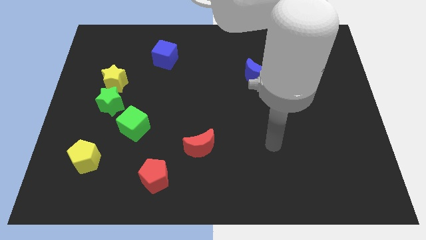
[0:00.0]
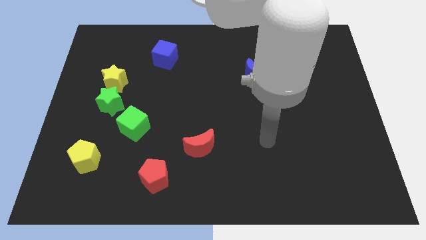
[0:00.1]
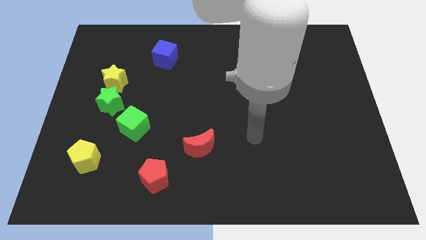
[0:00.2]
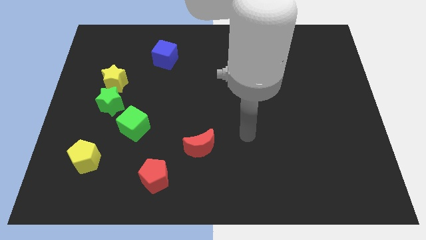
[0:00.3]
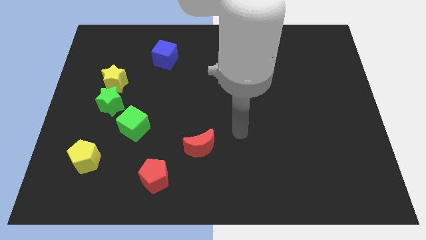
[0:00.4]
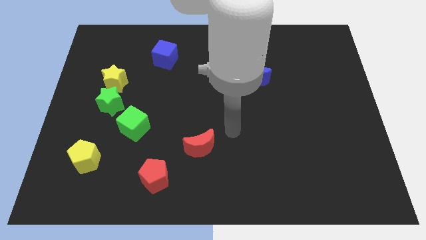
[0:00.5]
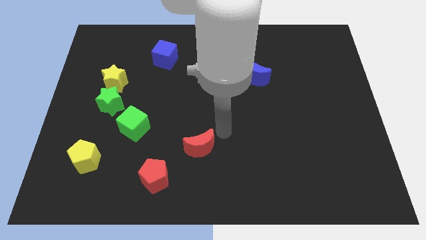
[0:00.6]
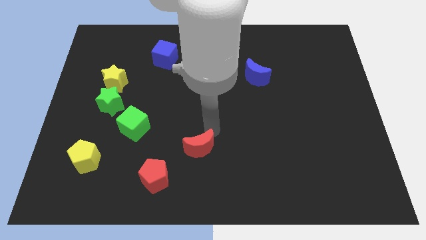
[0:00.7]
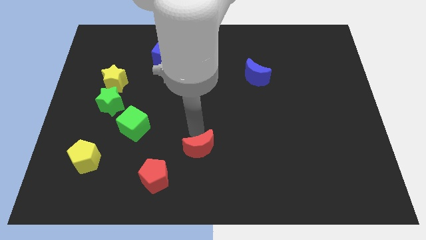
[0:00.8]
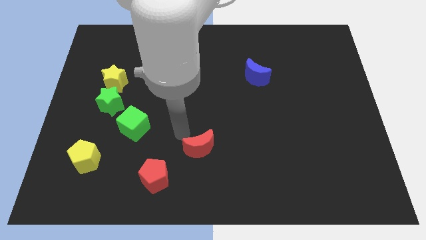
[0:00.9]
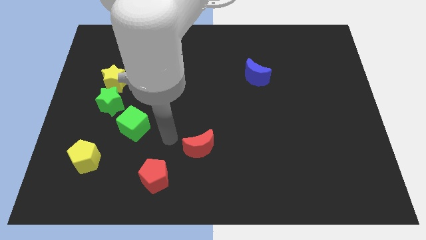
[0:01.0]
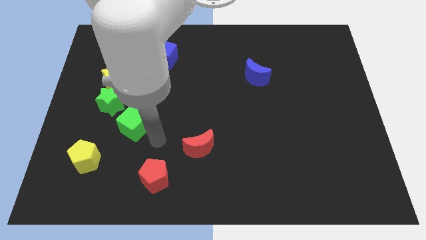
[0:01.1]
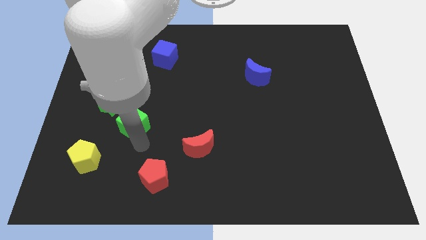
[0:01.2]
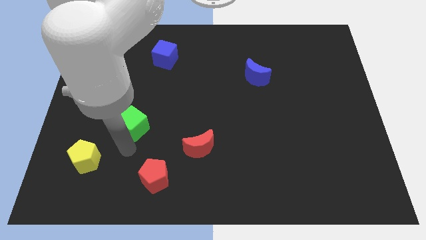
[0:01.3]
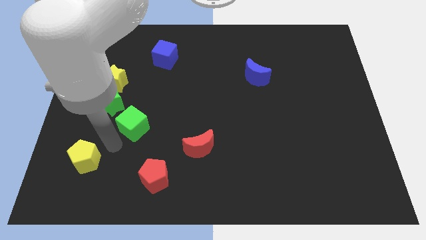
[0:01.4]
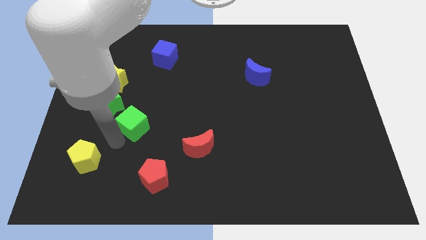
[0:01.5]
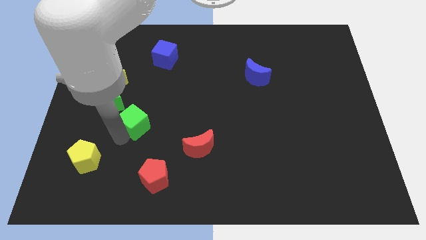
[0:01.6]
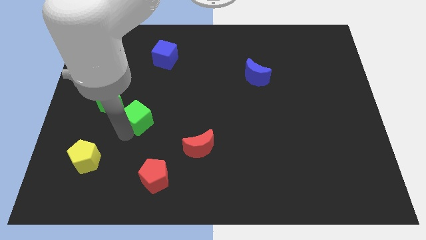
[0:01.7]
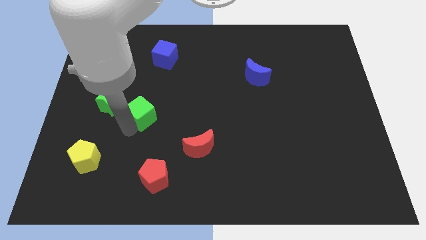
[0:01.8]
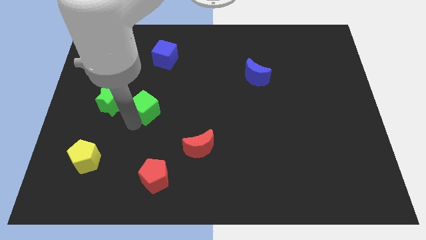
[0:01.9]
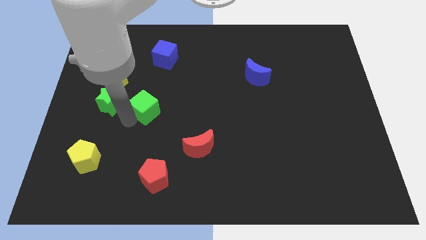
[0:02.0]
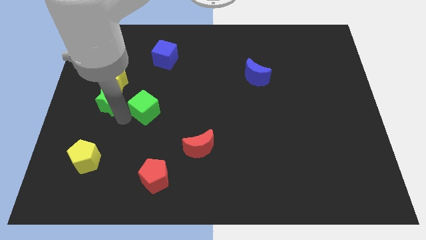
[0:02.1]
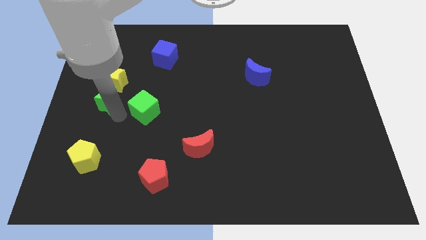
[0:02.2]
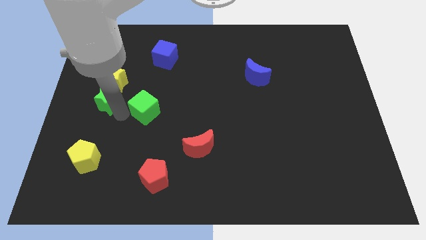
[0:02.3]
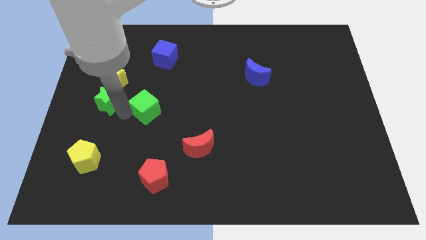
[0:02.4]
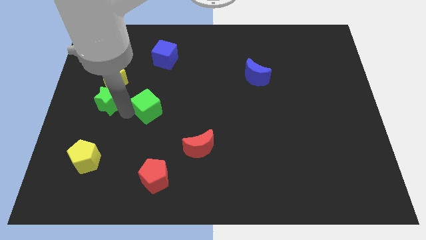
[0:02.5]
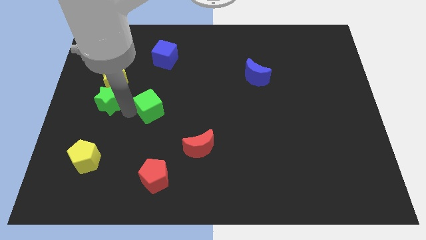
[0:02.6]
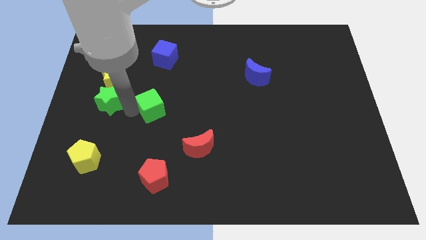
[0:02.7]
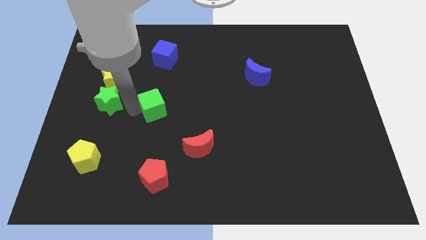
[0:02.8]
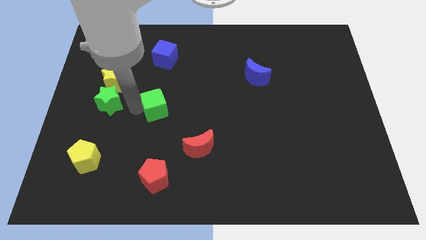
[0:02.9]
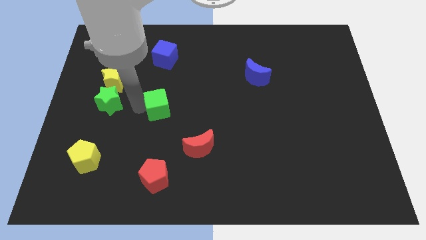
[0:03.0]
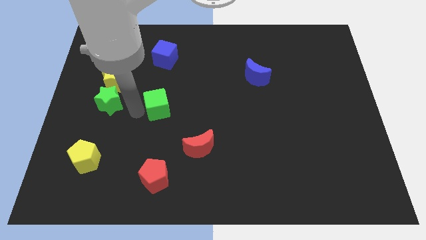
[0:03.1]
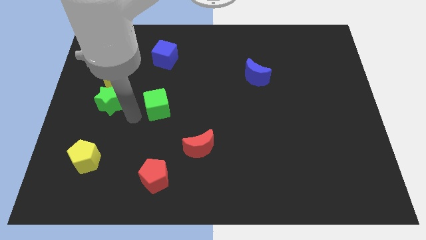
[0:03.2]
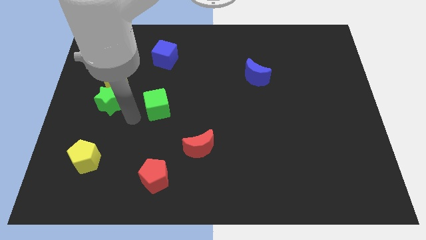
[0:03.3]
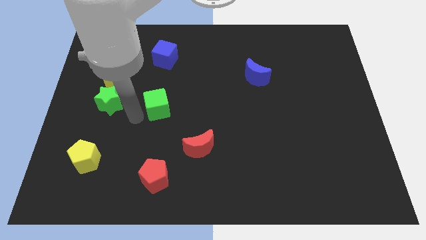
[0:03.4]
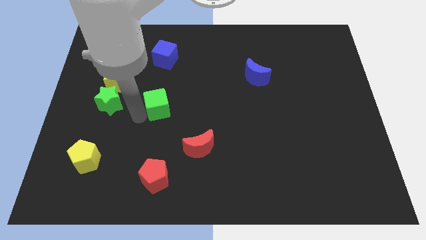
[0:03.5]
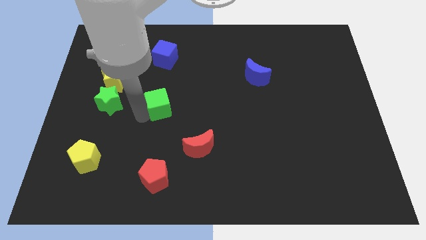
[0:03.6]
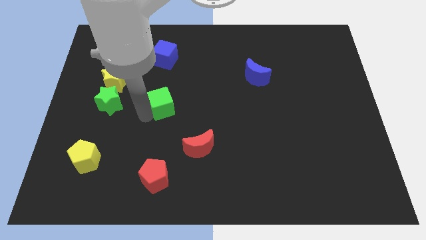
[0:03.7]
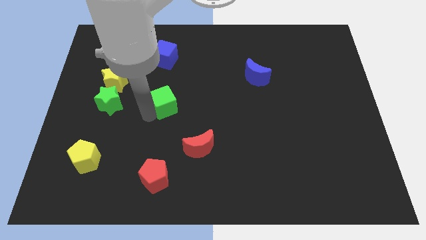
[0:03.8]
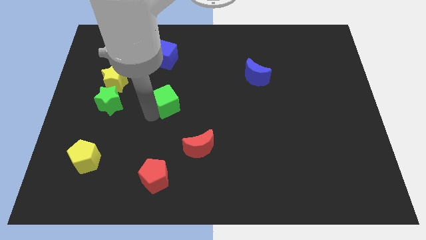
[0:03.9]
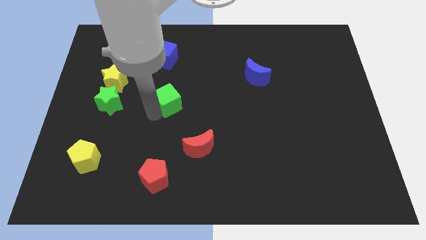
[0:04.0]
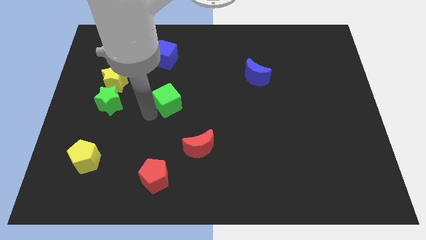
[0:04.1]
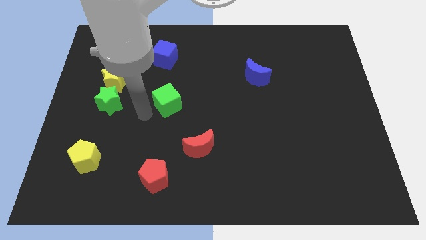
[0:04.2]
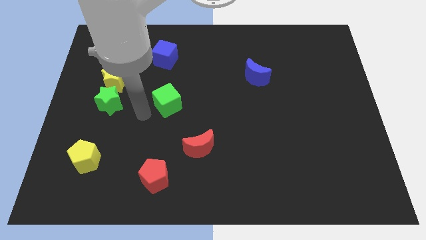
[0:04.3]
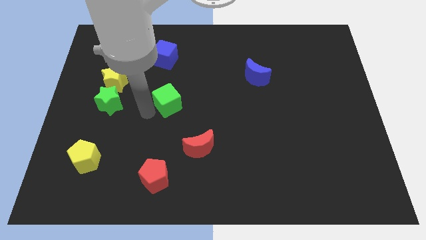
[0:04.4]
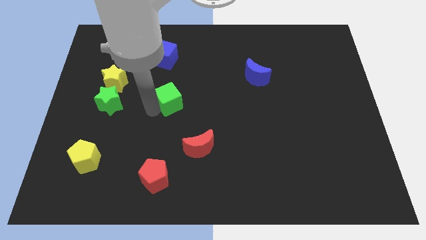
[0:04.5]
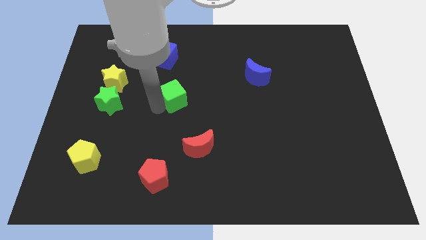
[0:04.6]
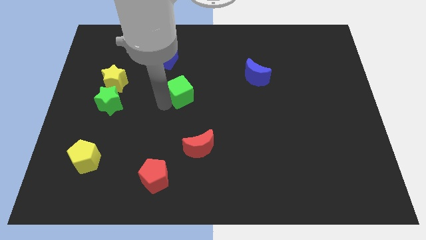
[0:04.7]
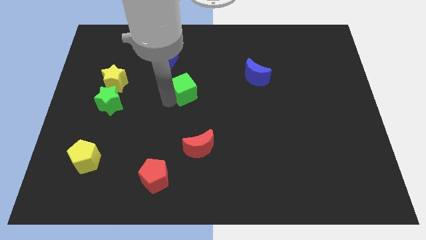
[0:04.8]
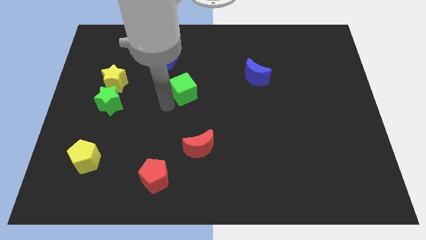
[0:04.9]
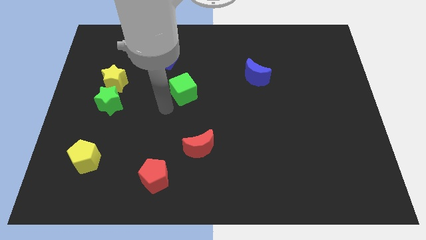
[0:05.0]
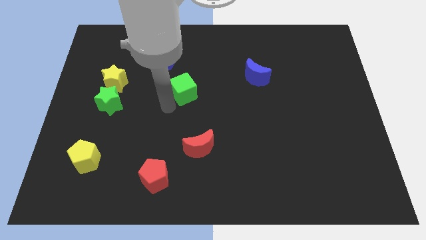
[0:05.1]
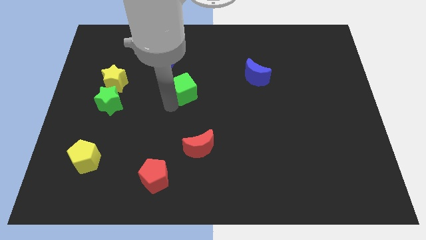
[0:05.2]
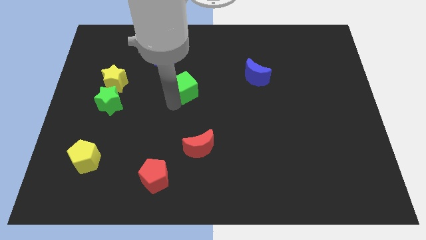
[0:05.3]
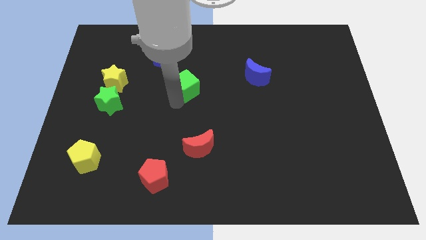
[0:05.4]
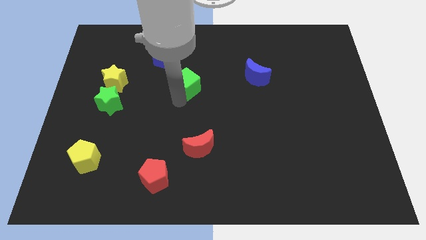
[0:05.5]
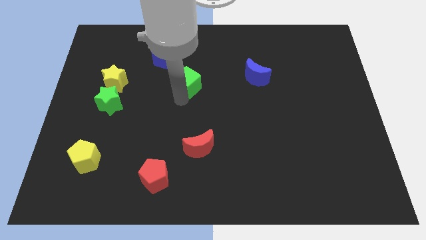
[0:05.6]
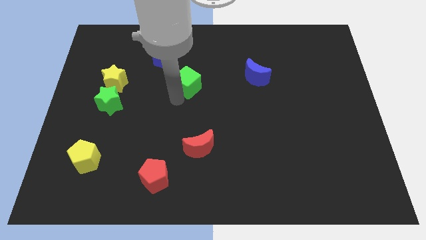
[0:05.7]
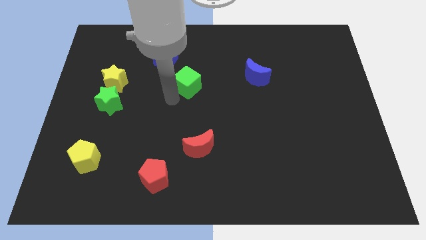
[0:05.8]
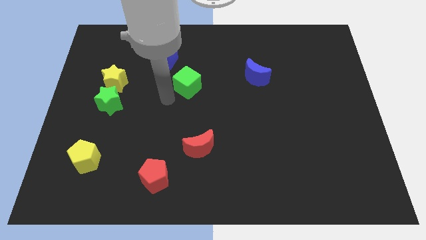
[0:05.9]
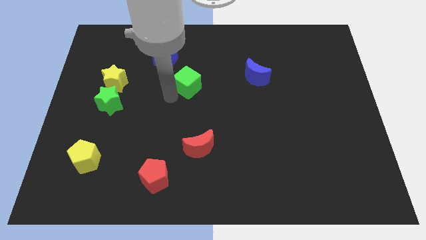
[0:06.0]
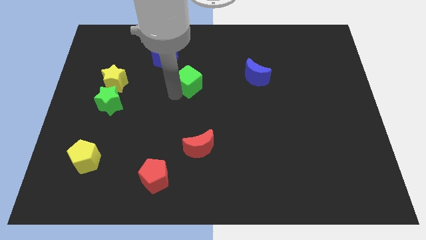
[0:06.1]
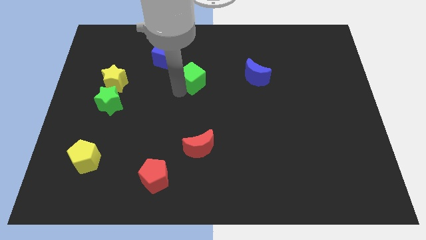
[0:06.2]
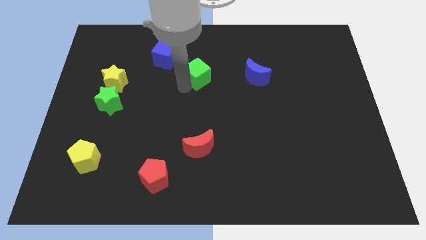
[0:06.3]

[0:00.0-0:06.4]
push the green cube up and right diagonally

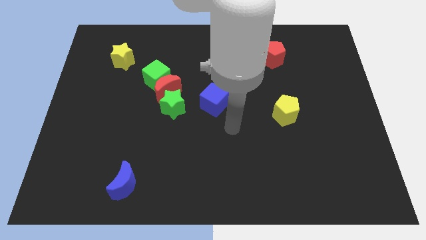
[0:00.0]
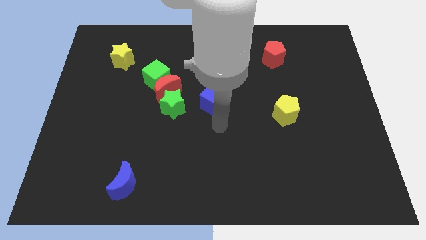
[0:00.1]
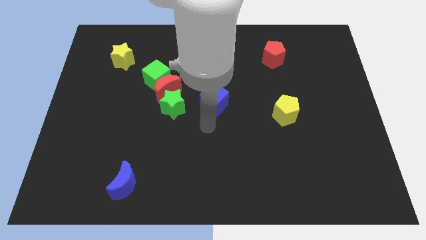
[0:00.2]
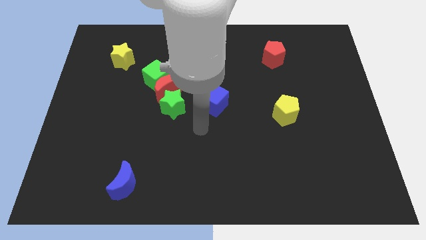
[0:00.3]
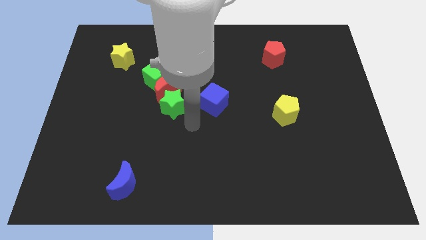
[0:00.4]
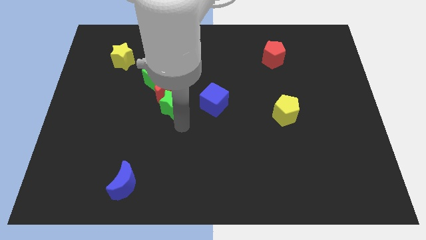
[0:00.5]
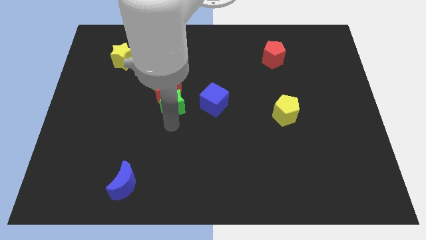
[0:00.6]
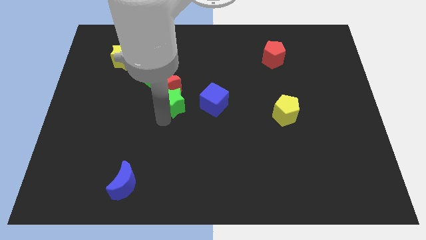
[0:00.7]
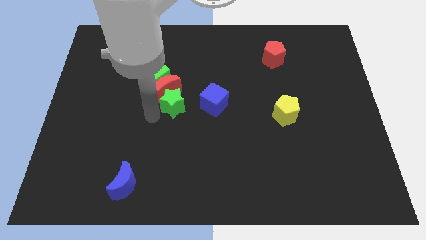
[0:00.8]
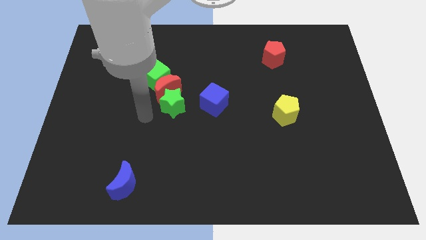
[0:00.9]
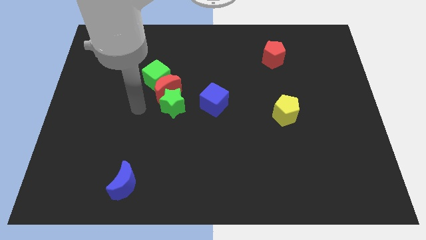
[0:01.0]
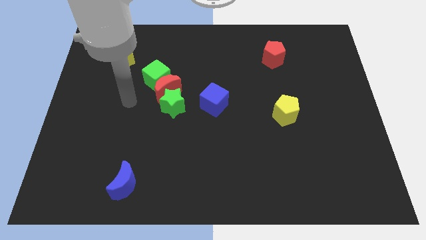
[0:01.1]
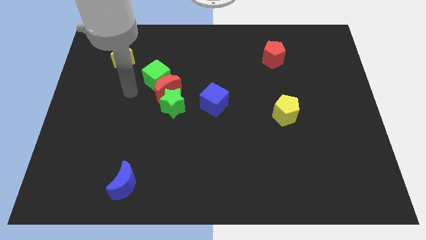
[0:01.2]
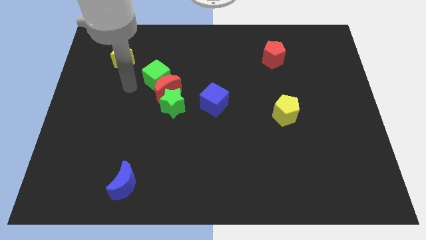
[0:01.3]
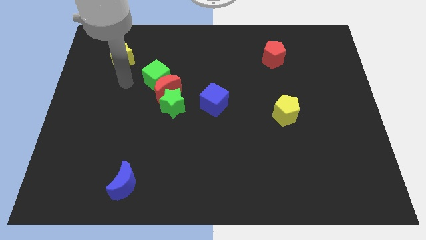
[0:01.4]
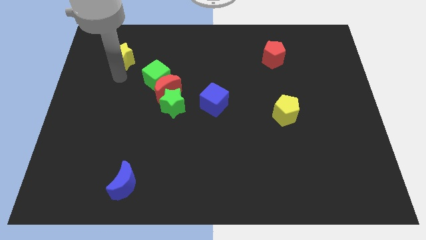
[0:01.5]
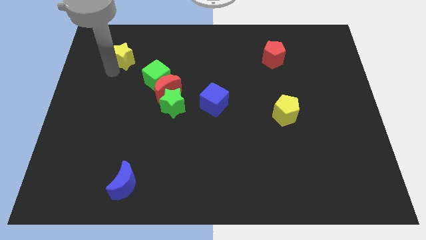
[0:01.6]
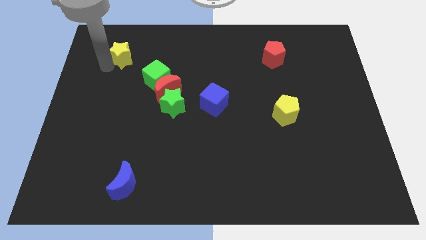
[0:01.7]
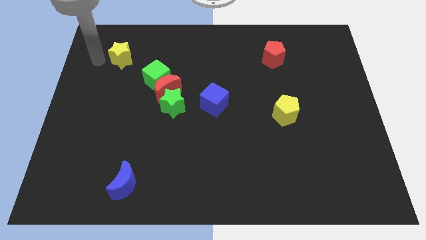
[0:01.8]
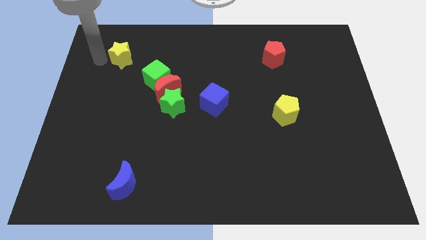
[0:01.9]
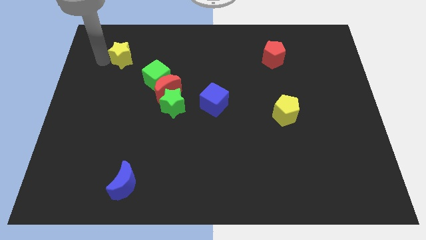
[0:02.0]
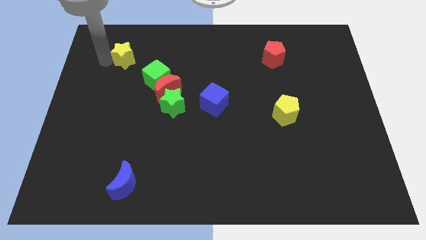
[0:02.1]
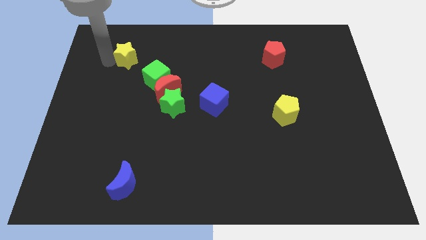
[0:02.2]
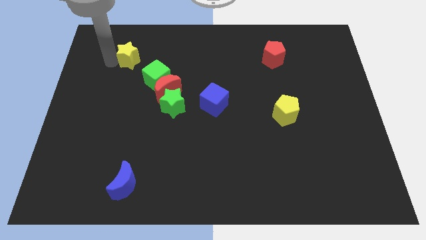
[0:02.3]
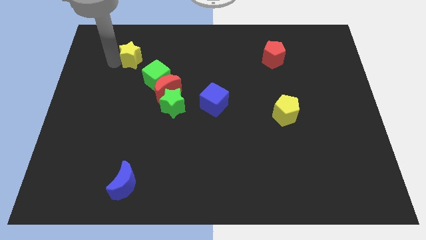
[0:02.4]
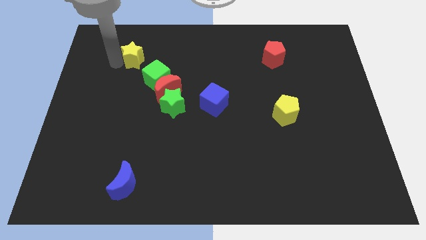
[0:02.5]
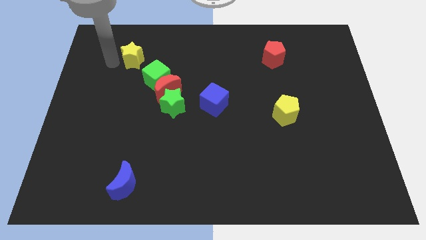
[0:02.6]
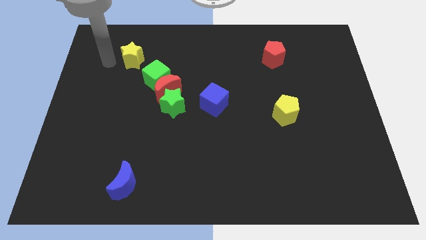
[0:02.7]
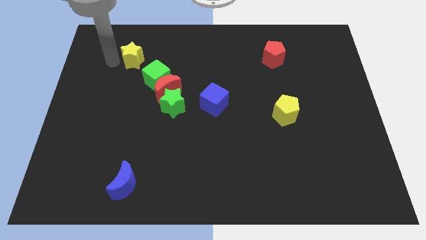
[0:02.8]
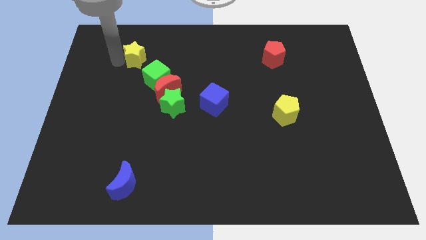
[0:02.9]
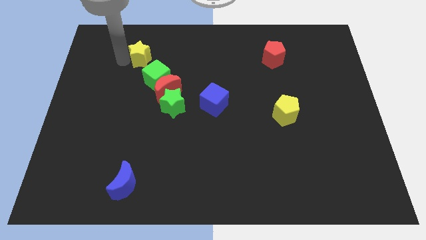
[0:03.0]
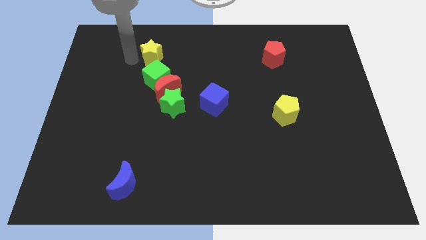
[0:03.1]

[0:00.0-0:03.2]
slightly push the yellow star right
